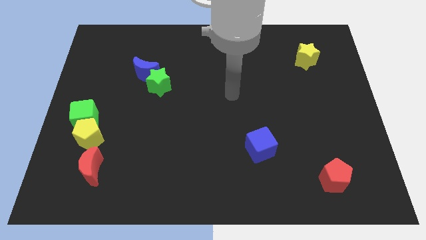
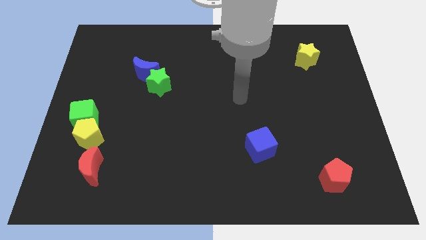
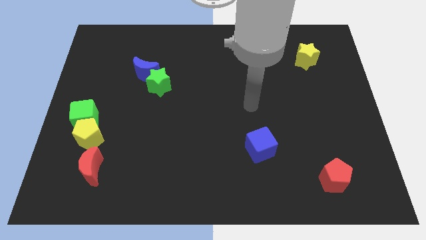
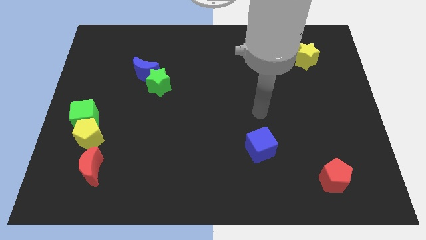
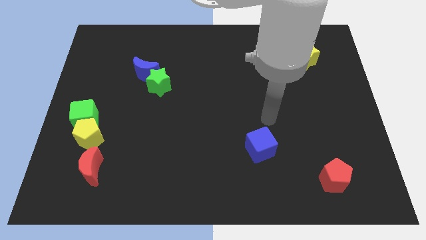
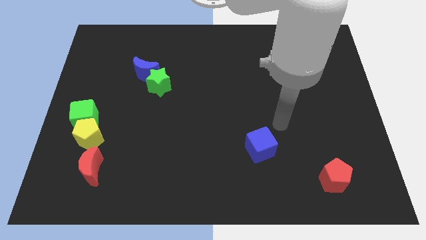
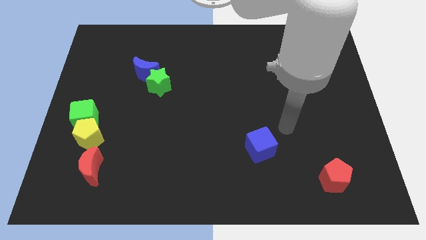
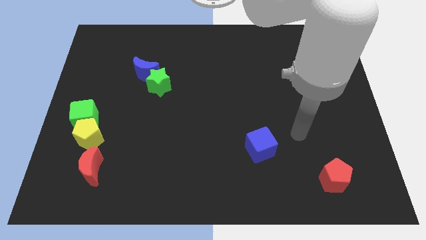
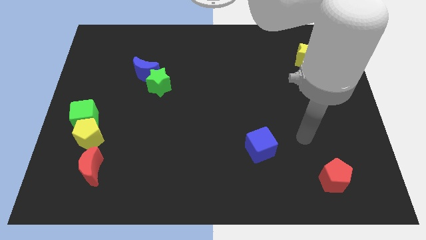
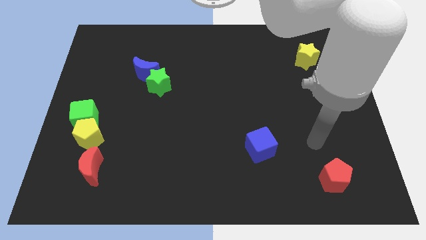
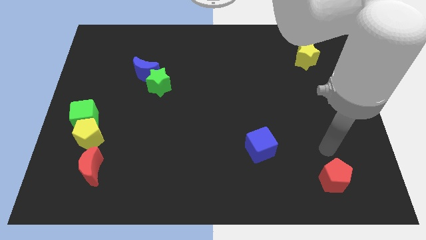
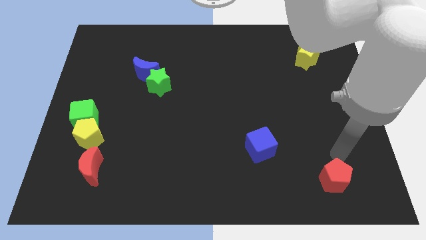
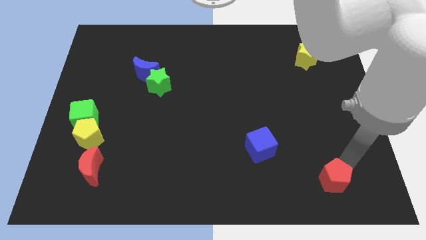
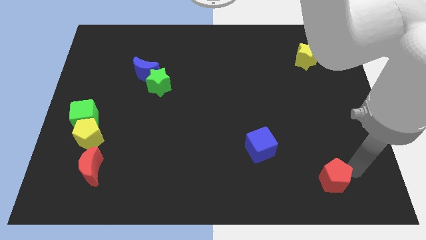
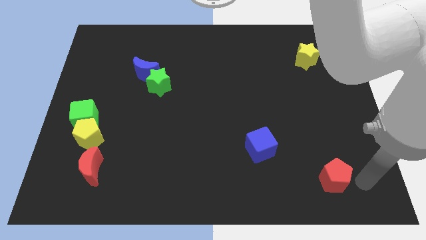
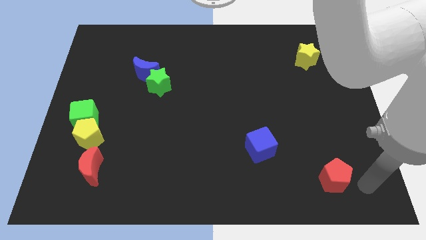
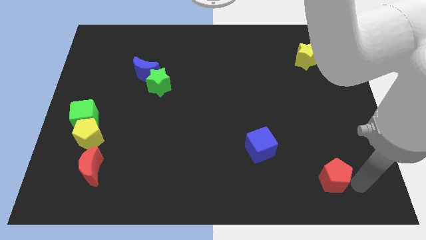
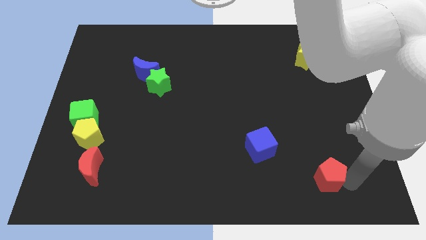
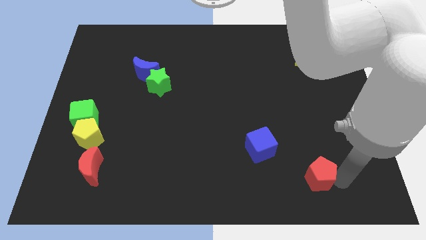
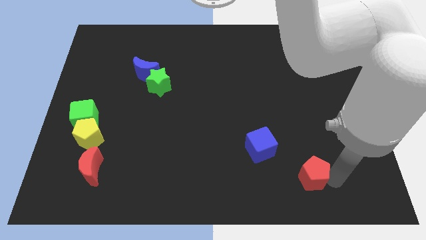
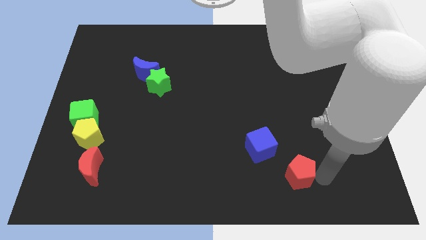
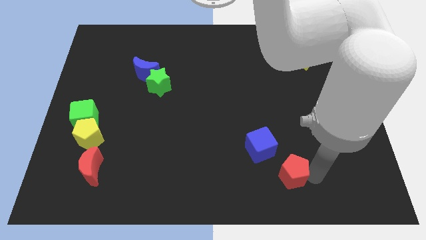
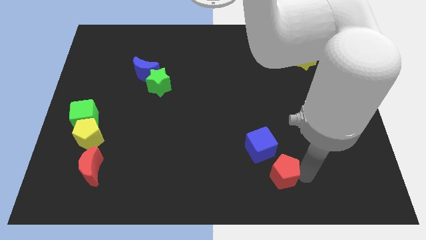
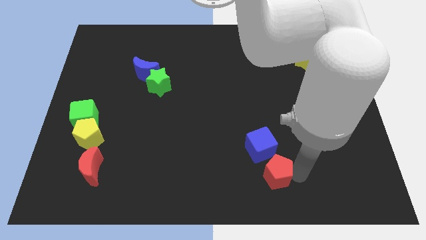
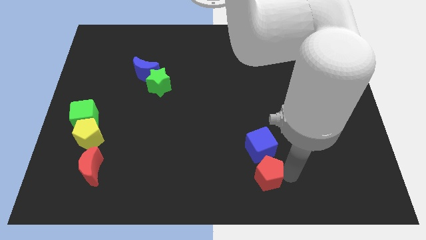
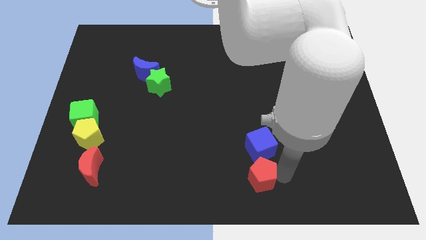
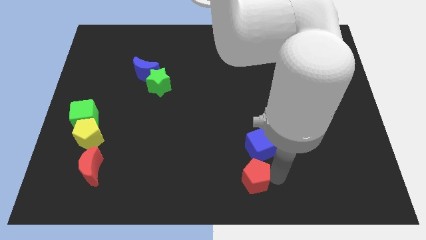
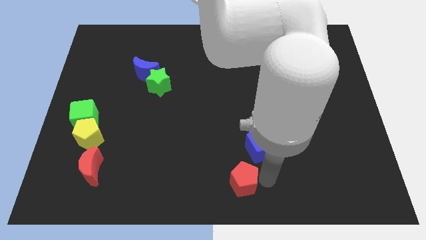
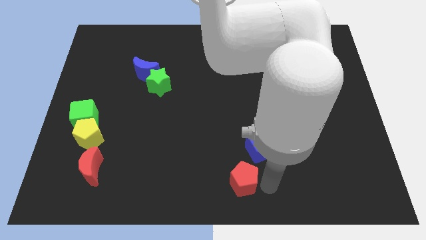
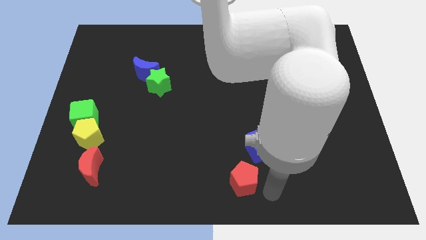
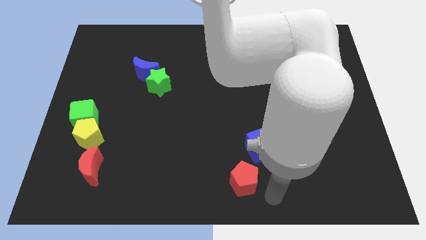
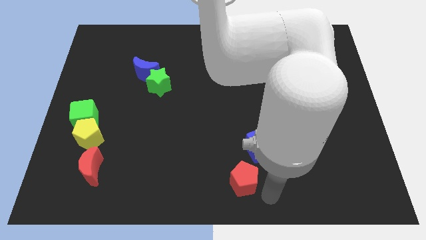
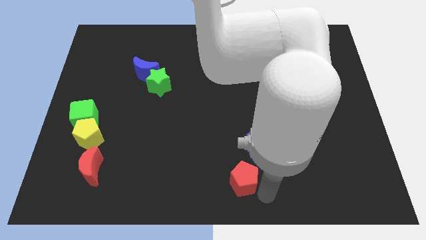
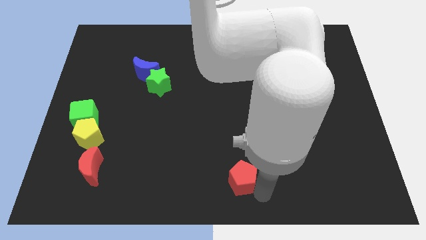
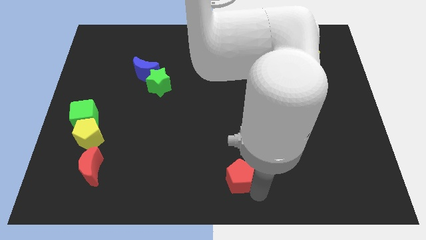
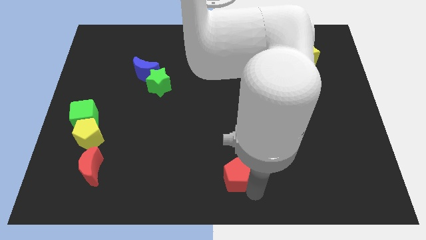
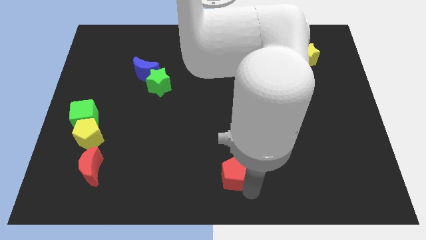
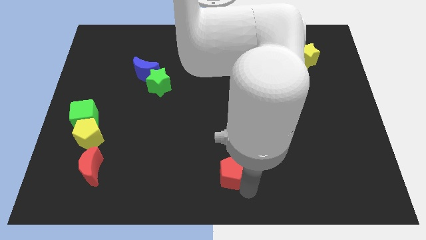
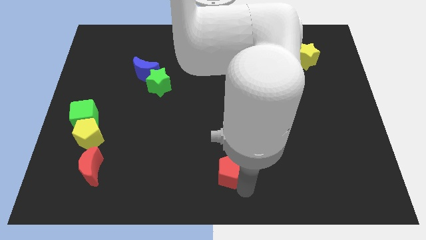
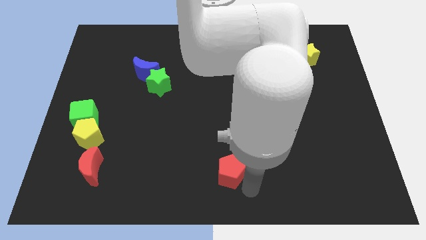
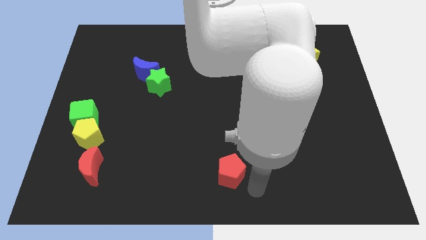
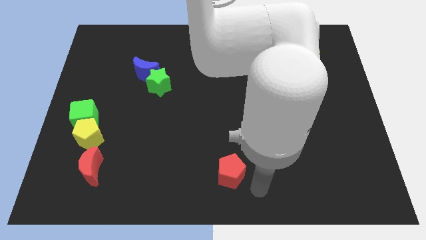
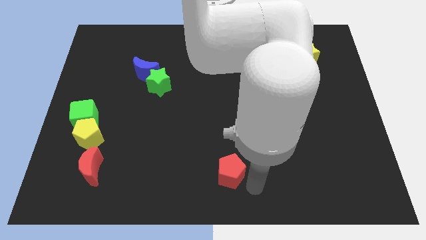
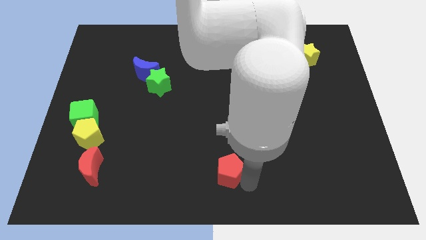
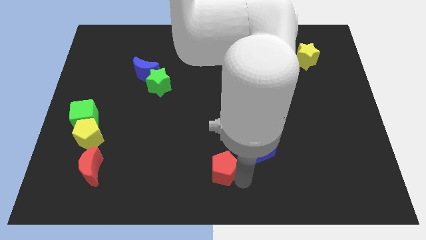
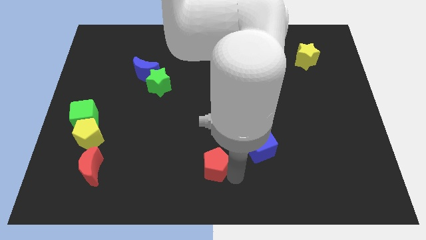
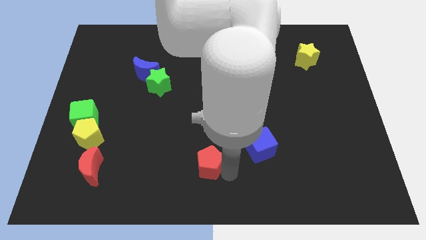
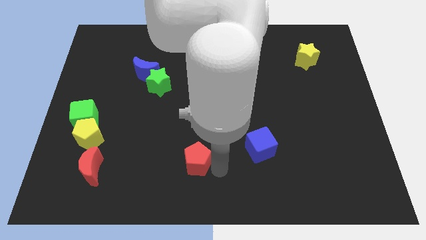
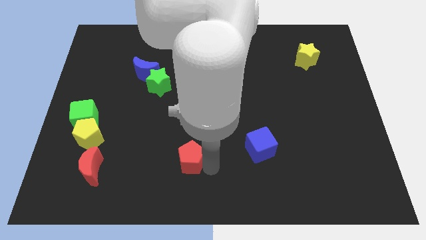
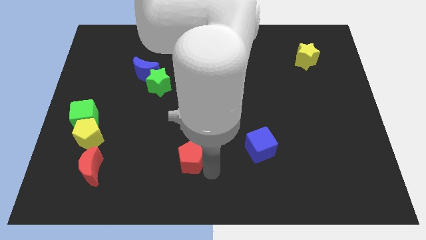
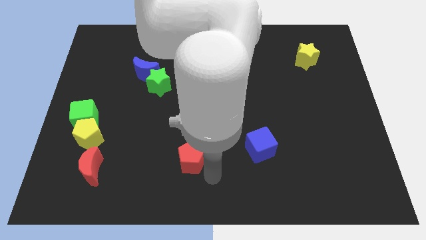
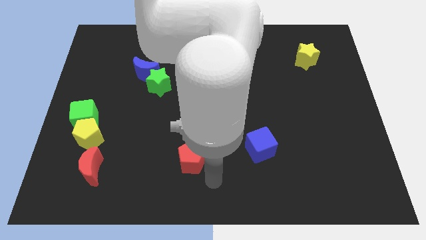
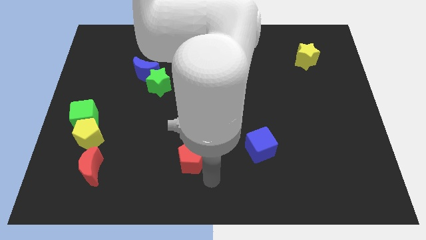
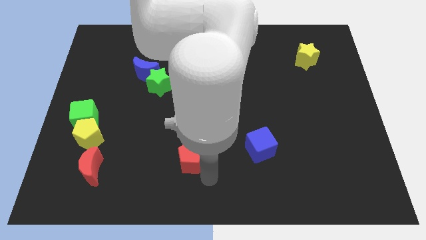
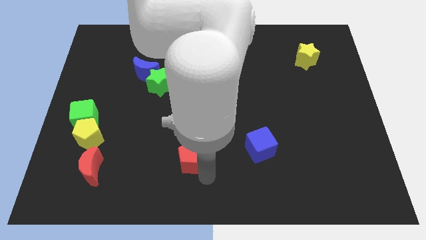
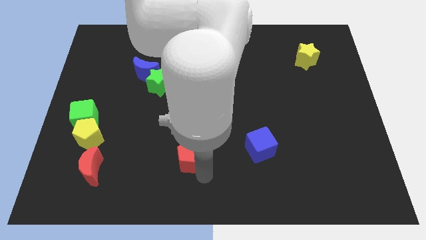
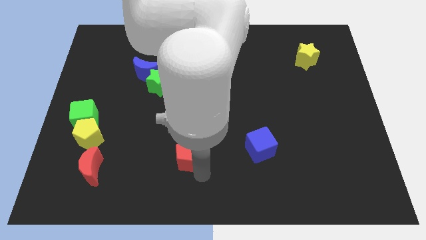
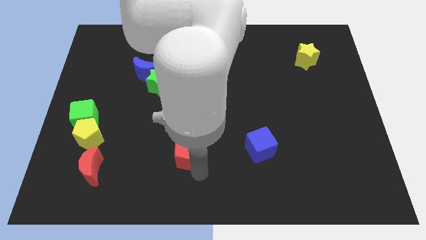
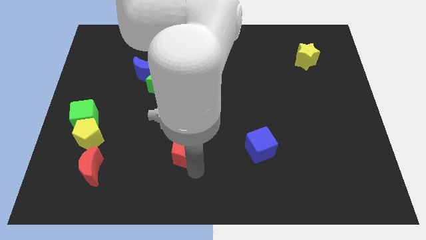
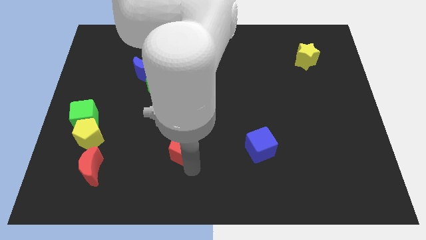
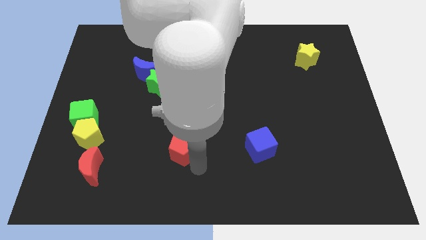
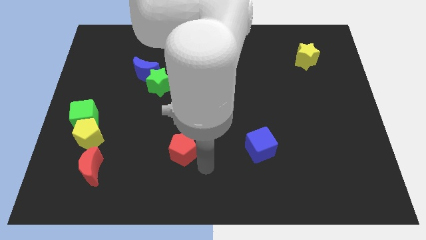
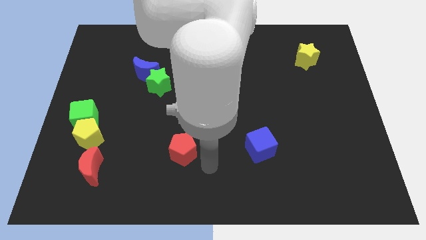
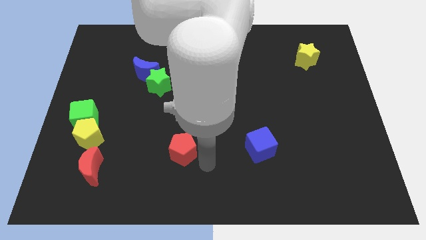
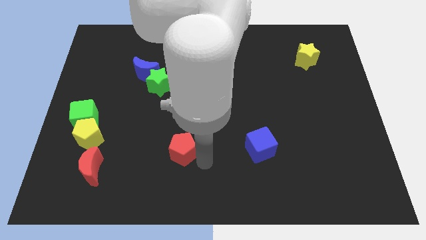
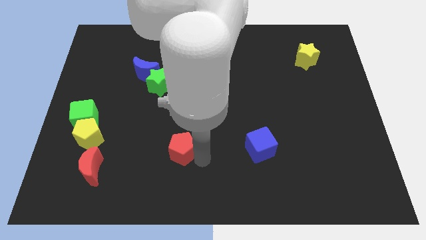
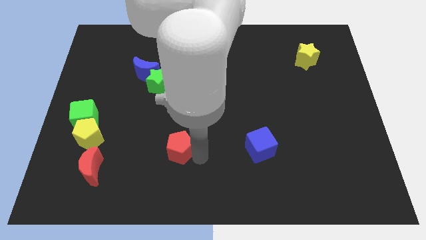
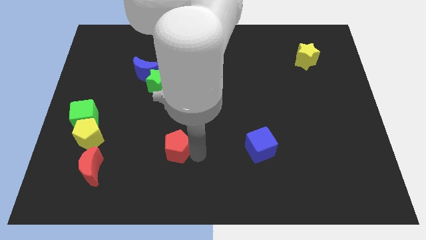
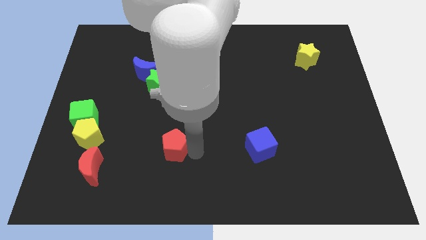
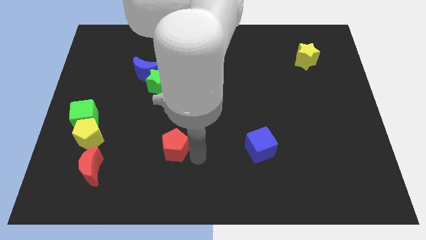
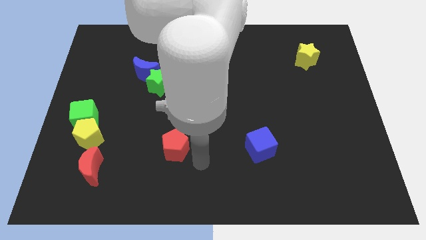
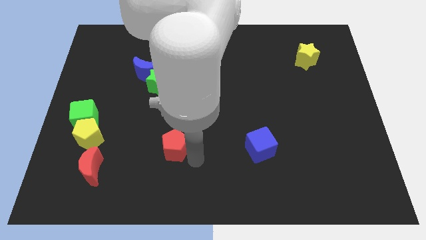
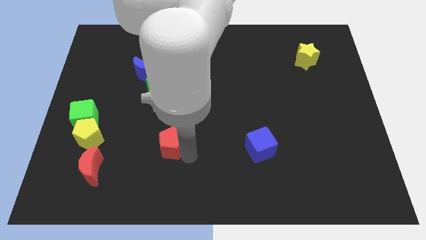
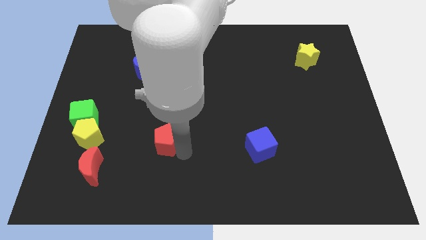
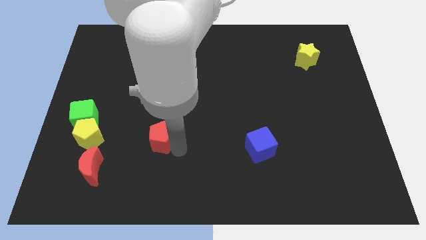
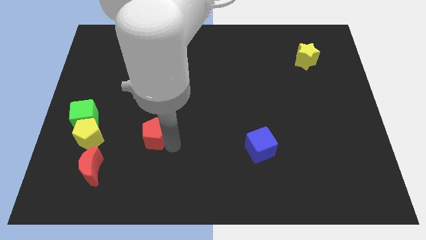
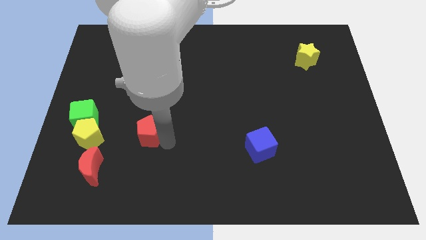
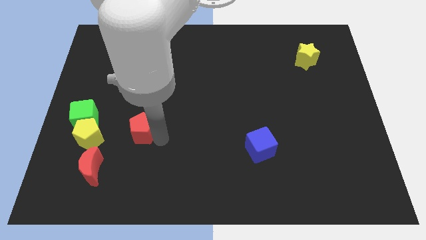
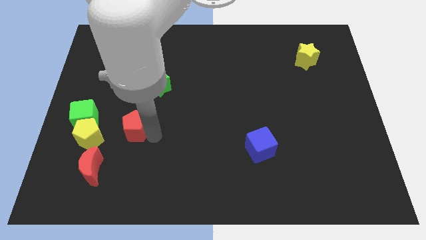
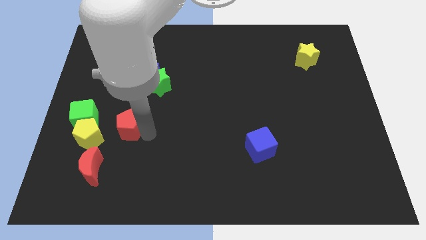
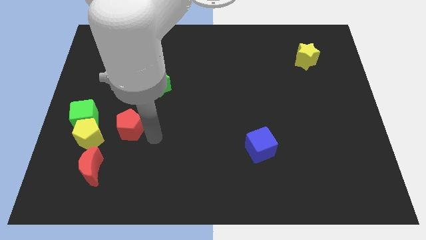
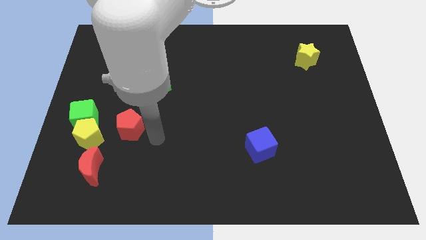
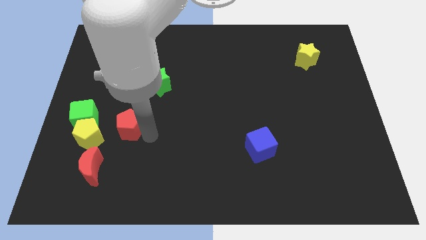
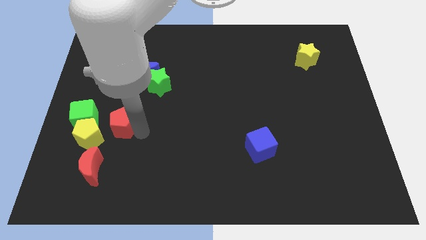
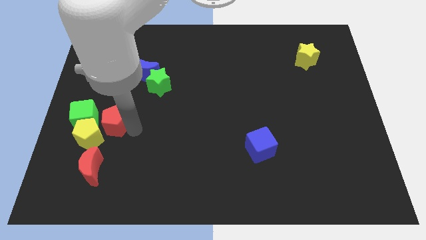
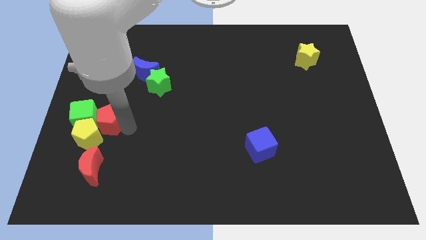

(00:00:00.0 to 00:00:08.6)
push the red pentagon close to the green cube
